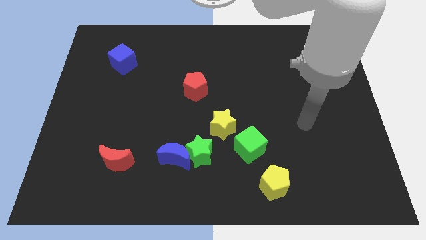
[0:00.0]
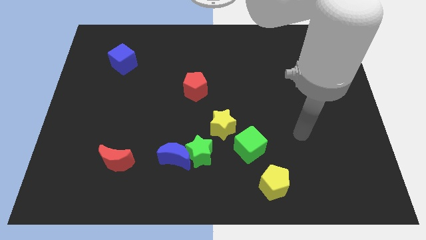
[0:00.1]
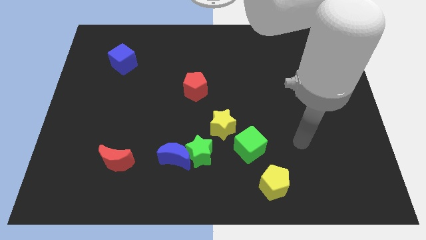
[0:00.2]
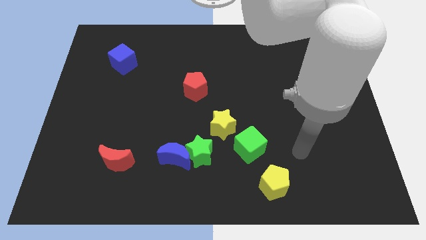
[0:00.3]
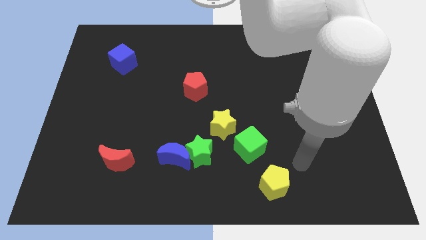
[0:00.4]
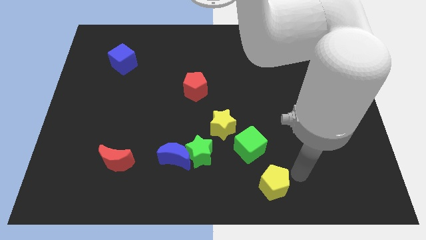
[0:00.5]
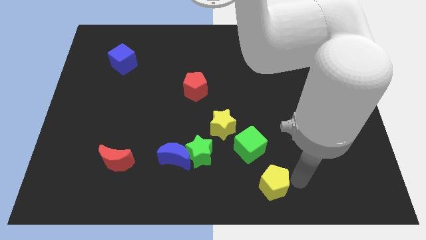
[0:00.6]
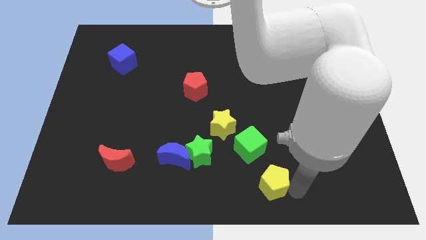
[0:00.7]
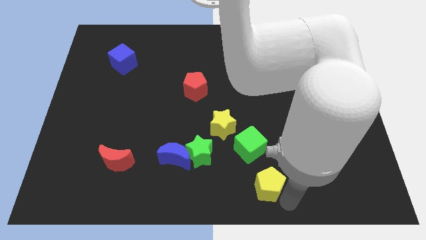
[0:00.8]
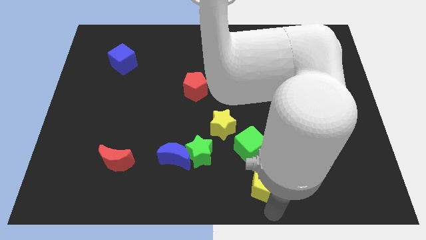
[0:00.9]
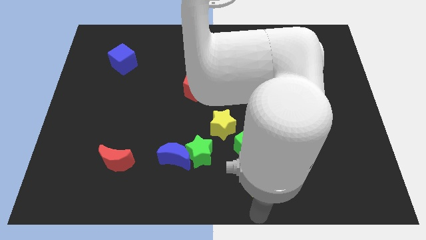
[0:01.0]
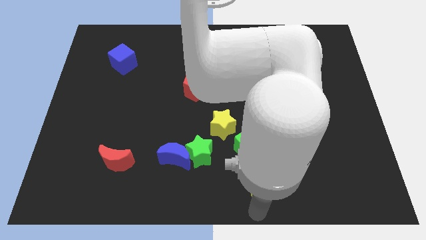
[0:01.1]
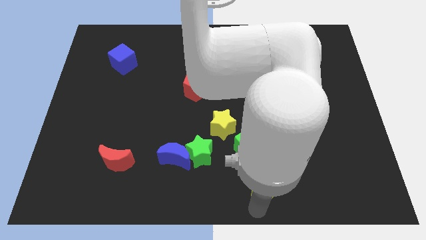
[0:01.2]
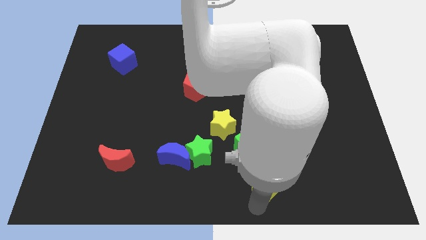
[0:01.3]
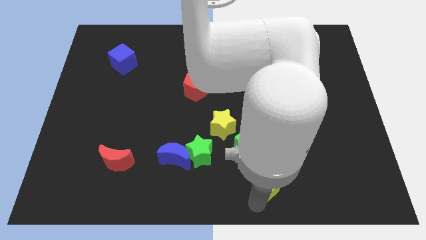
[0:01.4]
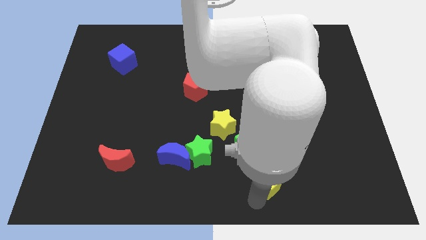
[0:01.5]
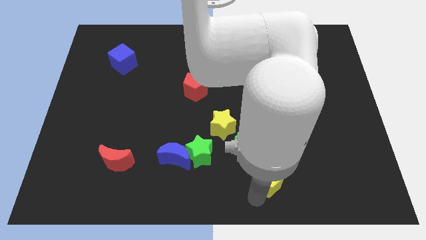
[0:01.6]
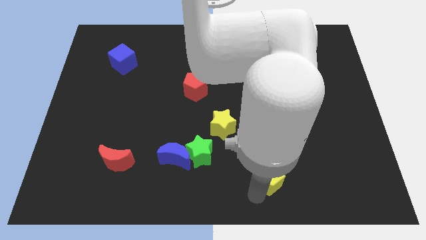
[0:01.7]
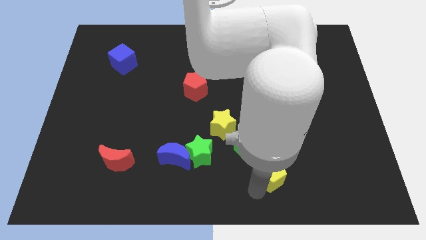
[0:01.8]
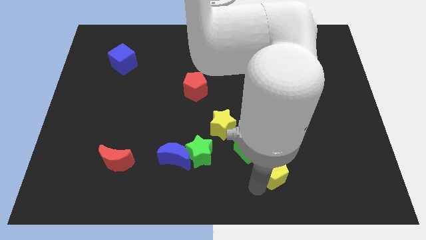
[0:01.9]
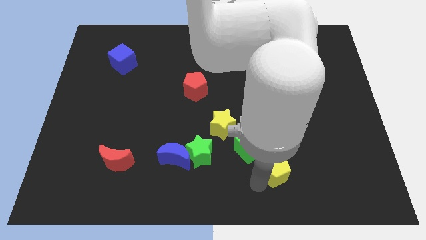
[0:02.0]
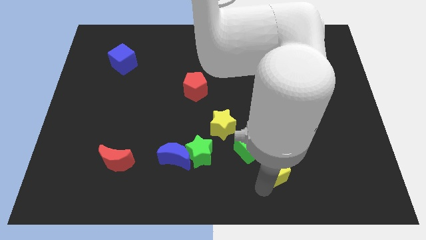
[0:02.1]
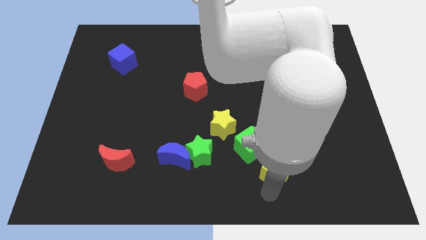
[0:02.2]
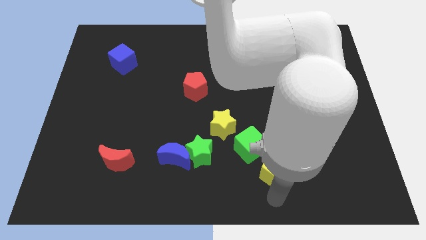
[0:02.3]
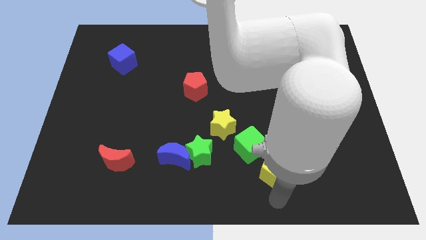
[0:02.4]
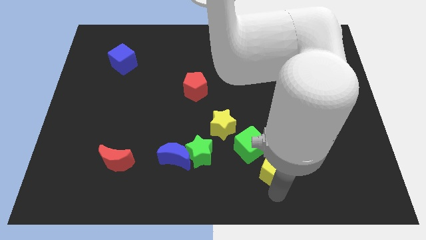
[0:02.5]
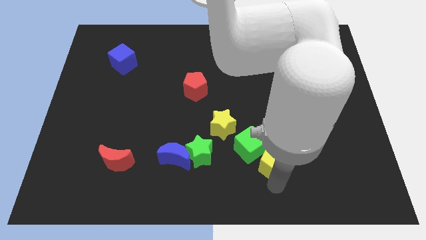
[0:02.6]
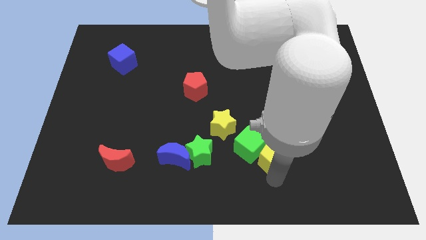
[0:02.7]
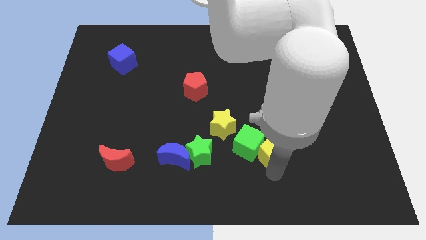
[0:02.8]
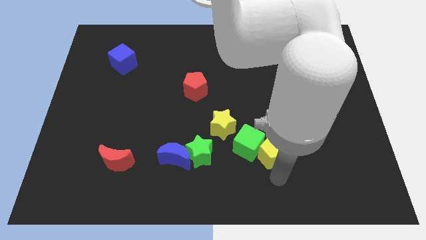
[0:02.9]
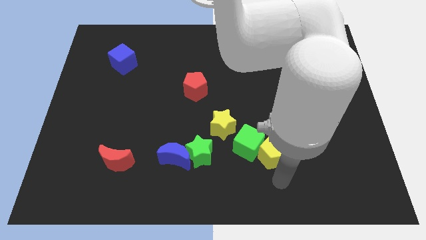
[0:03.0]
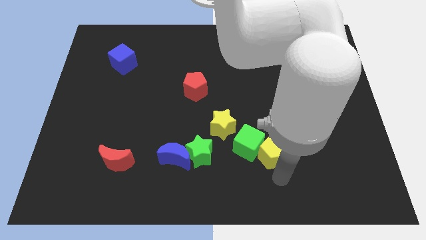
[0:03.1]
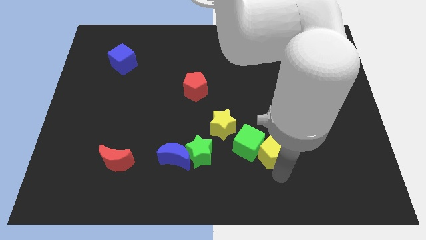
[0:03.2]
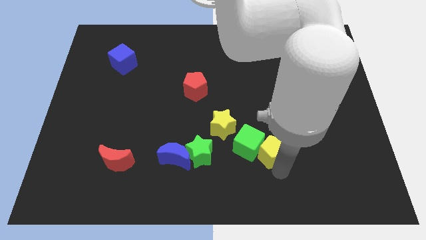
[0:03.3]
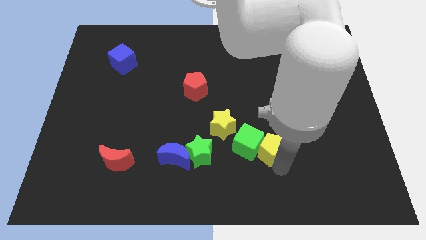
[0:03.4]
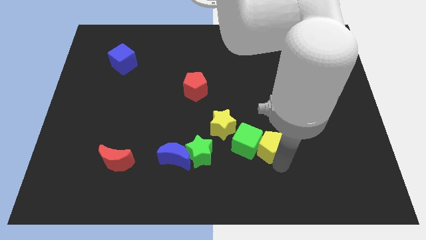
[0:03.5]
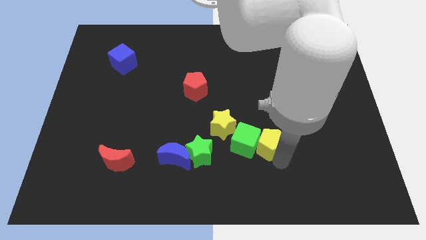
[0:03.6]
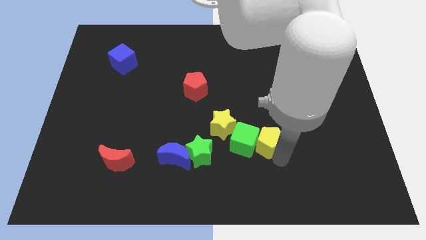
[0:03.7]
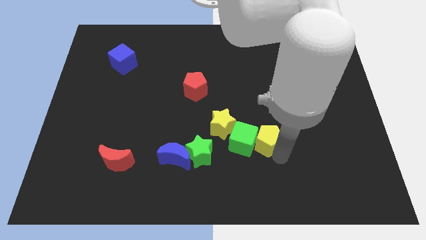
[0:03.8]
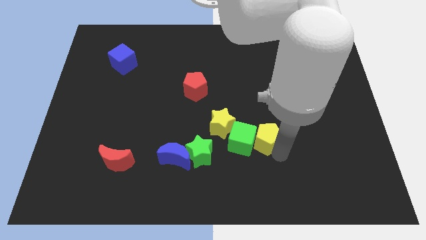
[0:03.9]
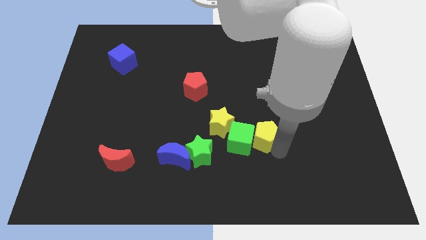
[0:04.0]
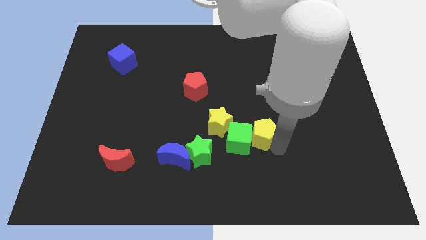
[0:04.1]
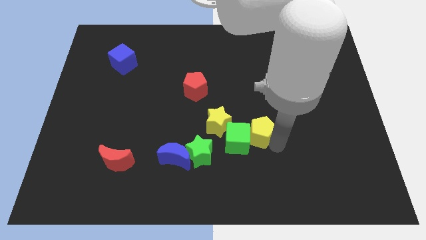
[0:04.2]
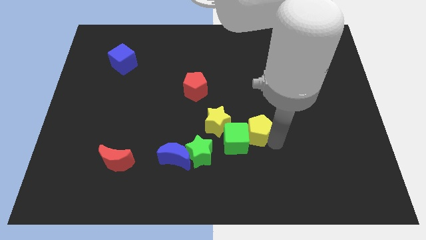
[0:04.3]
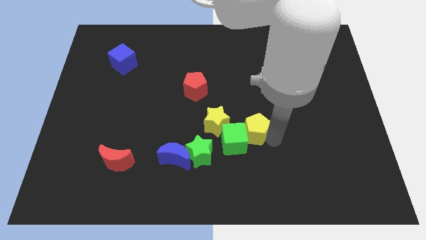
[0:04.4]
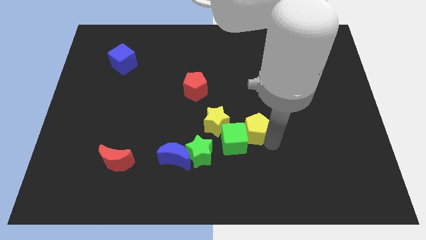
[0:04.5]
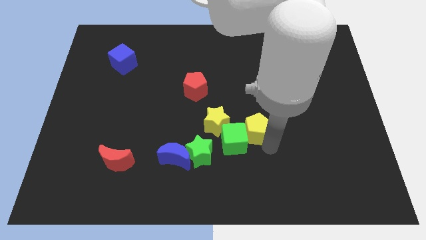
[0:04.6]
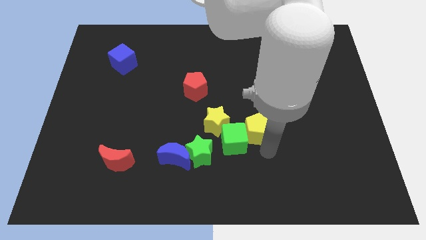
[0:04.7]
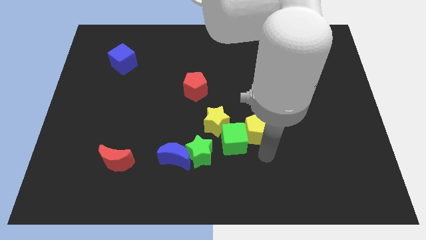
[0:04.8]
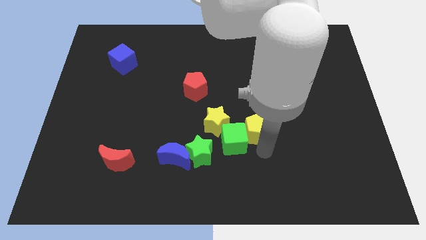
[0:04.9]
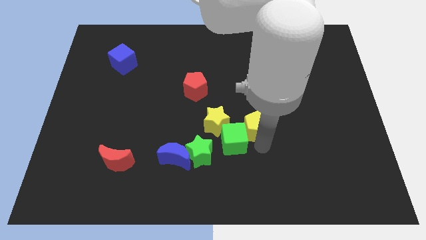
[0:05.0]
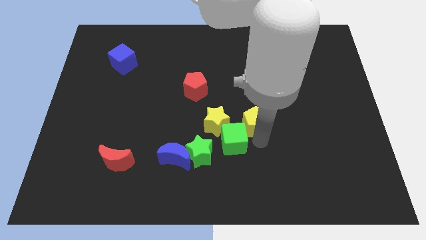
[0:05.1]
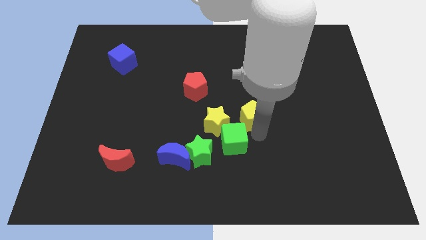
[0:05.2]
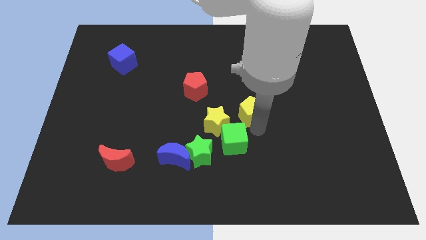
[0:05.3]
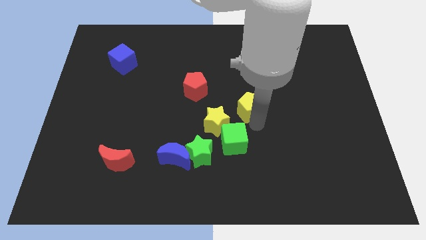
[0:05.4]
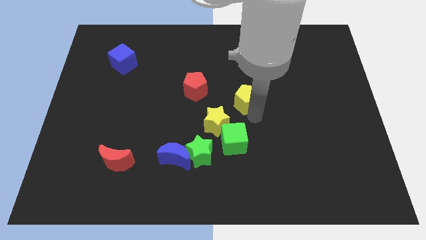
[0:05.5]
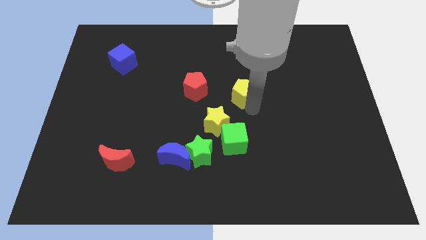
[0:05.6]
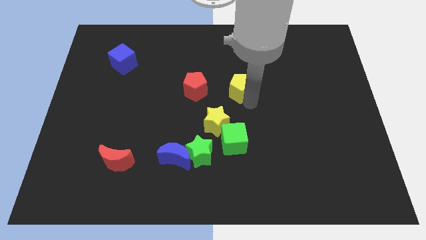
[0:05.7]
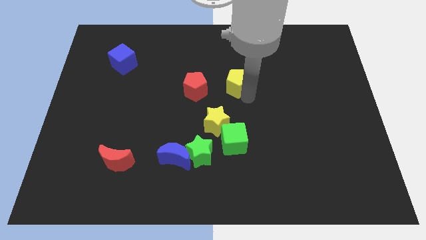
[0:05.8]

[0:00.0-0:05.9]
move the yellow pentagon above the yellow star

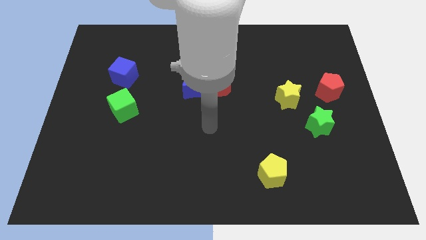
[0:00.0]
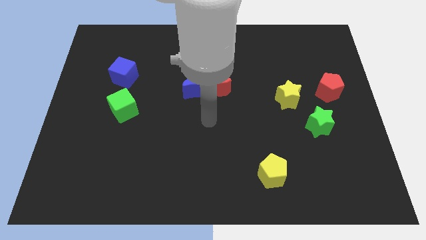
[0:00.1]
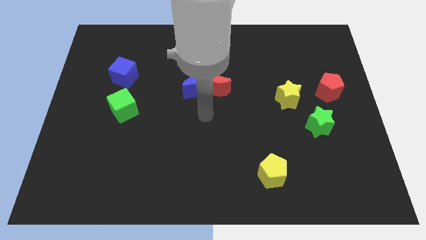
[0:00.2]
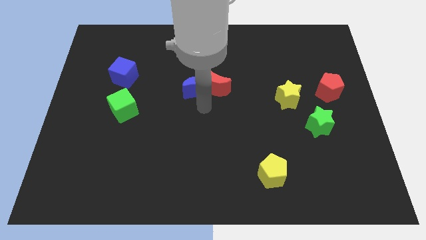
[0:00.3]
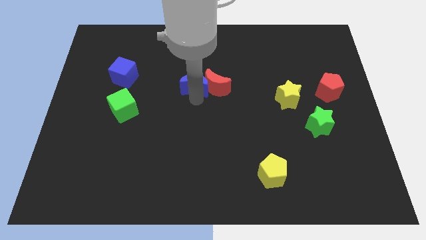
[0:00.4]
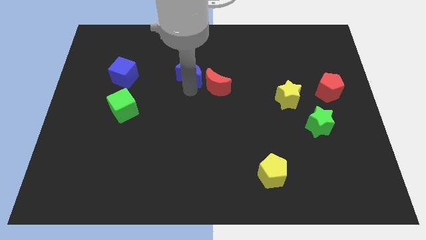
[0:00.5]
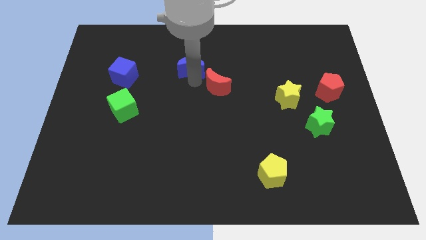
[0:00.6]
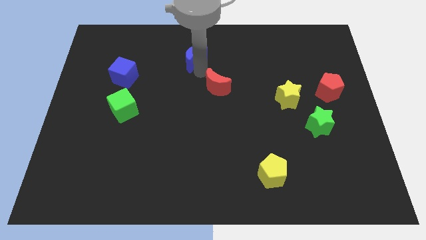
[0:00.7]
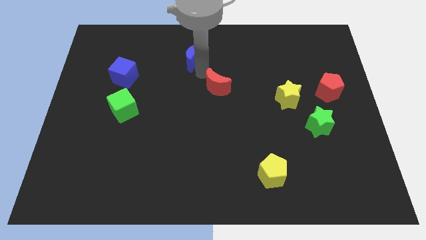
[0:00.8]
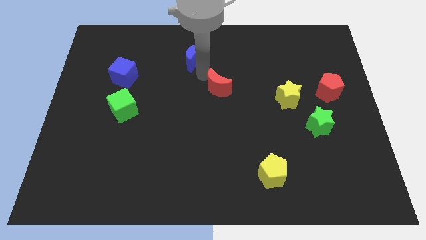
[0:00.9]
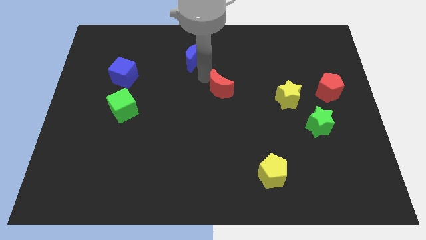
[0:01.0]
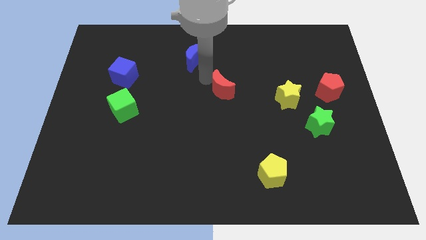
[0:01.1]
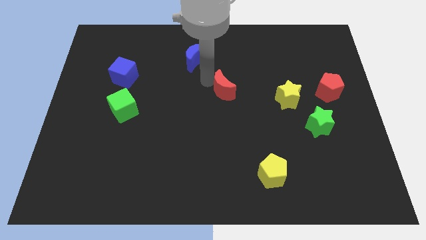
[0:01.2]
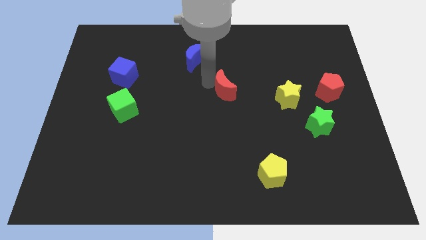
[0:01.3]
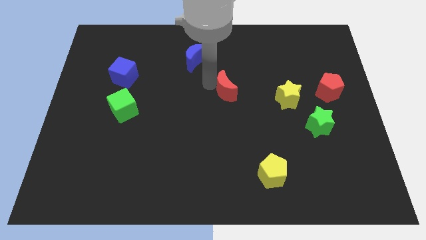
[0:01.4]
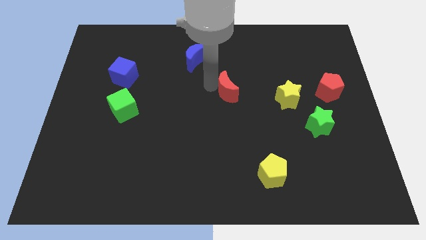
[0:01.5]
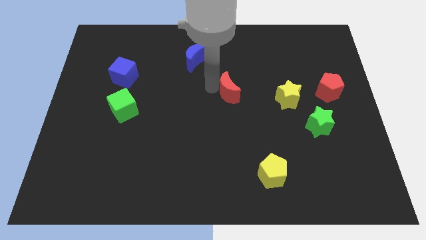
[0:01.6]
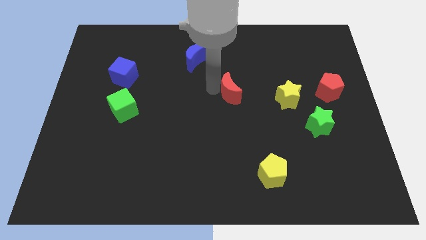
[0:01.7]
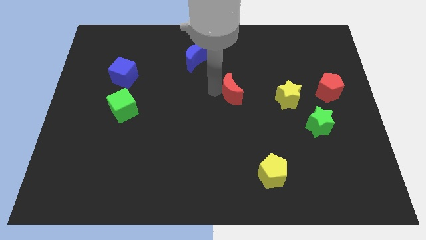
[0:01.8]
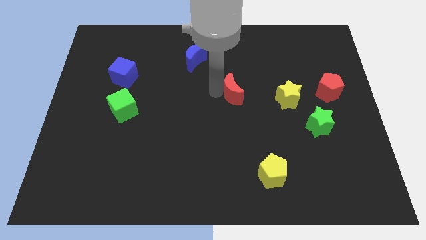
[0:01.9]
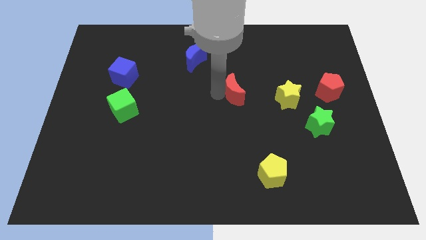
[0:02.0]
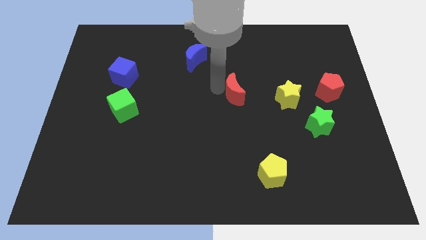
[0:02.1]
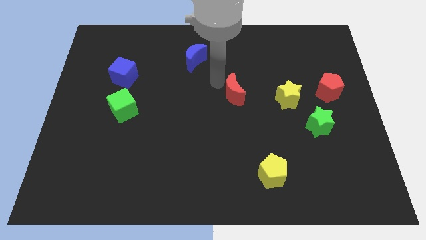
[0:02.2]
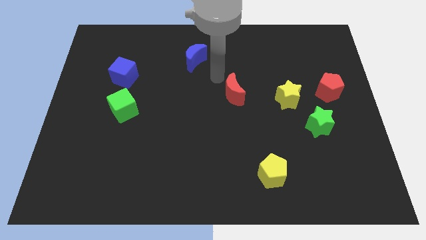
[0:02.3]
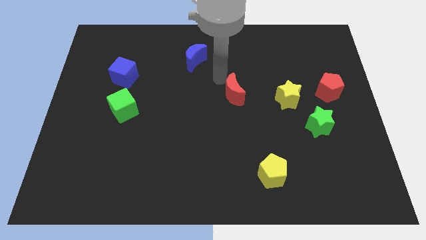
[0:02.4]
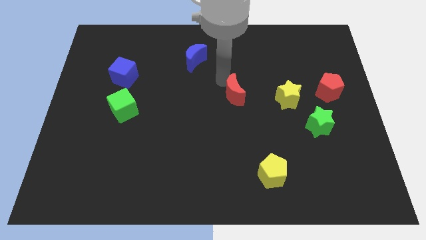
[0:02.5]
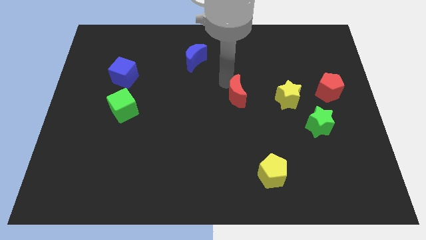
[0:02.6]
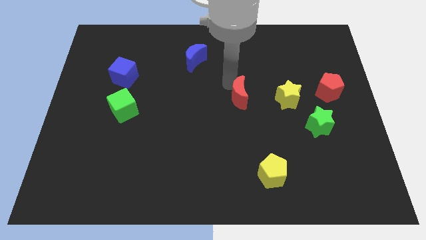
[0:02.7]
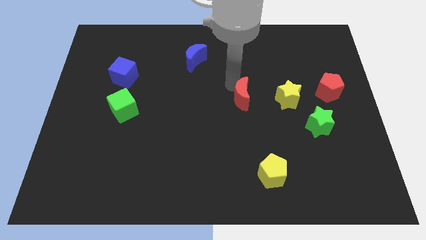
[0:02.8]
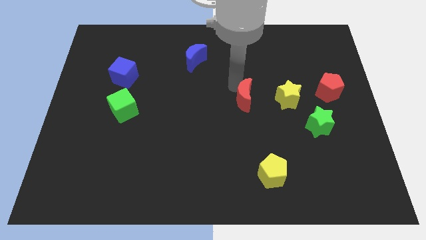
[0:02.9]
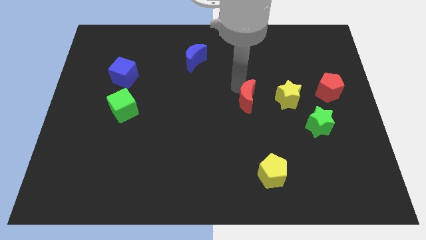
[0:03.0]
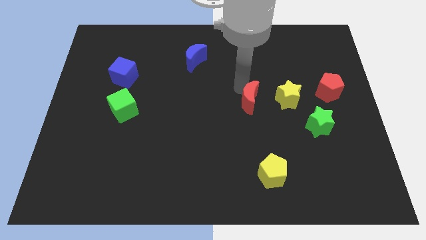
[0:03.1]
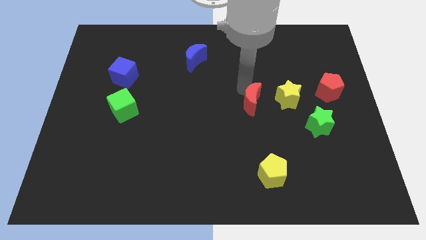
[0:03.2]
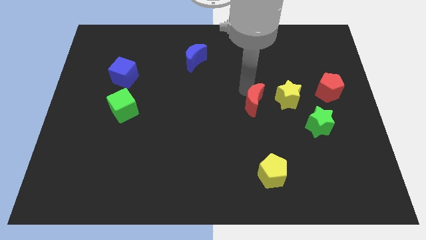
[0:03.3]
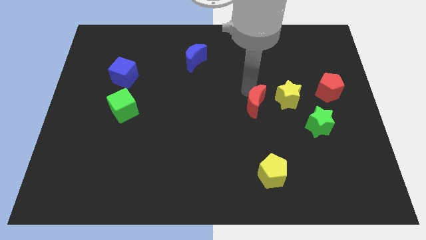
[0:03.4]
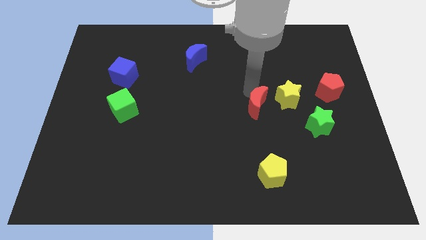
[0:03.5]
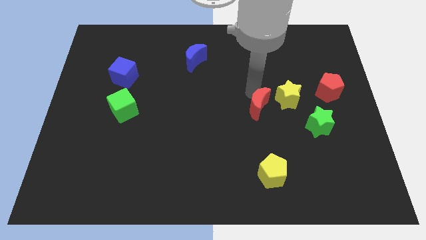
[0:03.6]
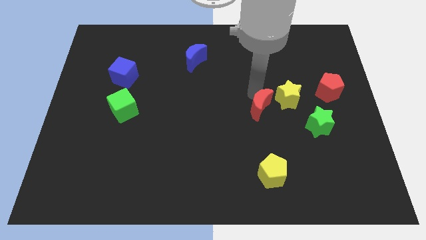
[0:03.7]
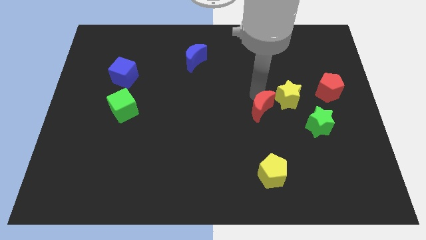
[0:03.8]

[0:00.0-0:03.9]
put the red moon to the left side of the green star
